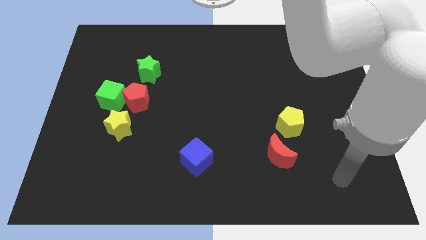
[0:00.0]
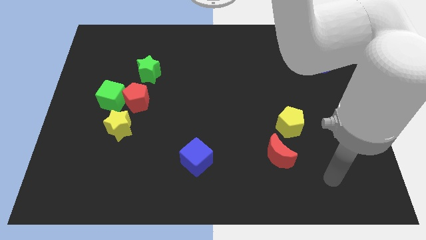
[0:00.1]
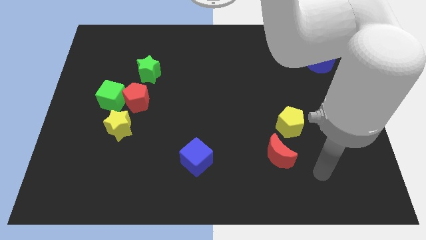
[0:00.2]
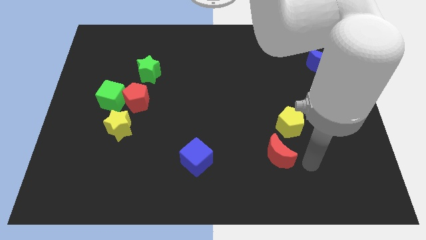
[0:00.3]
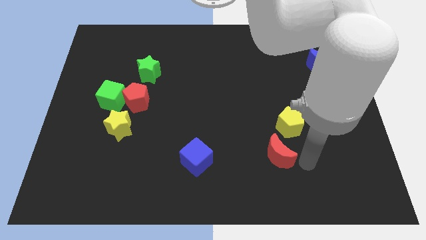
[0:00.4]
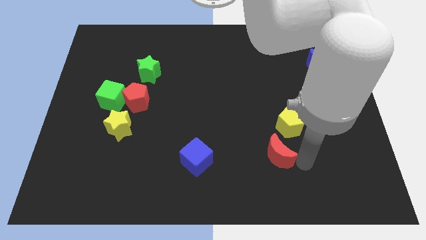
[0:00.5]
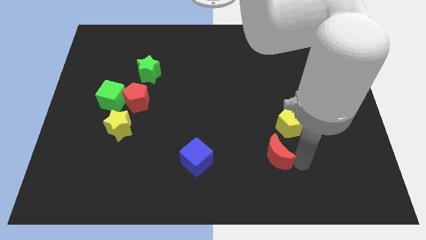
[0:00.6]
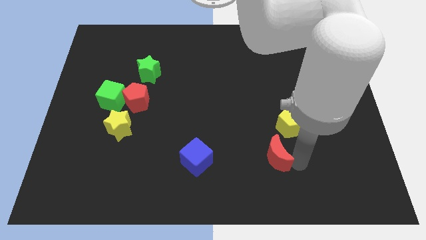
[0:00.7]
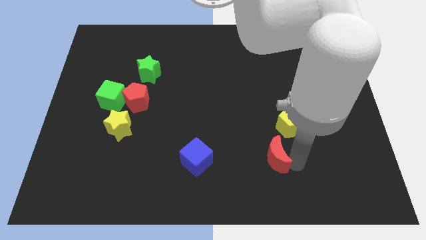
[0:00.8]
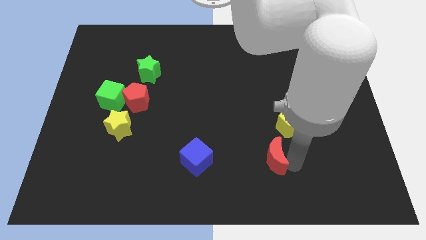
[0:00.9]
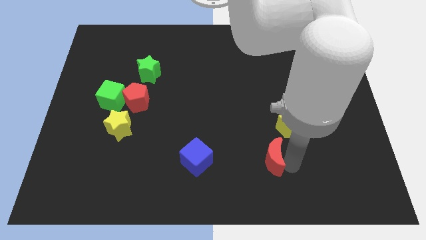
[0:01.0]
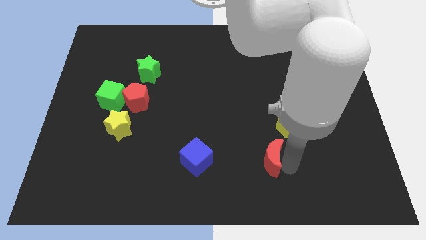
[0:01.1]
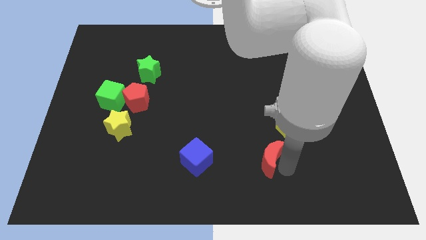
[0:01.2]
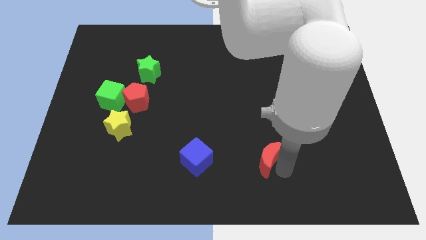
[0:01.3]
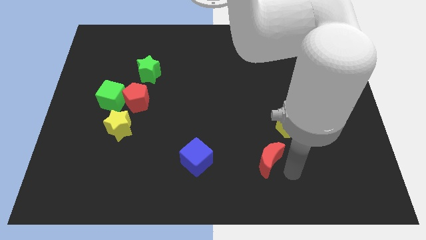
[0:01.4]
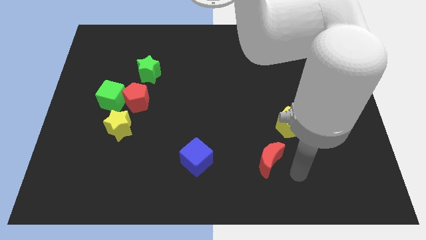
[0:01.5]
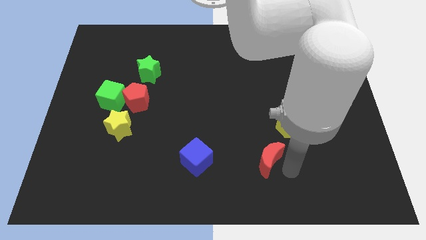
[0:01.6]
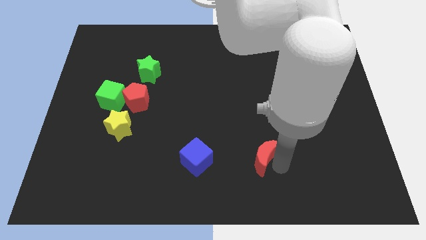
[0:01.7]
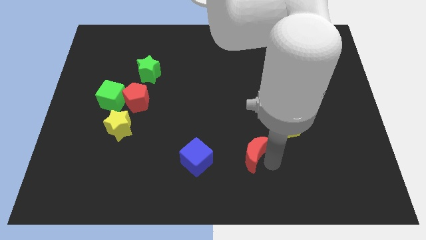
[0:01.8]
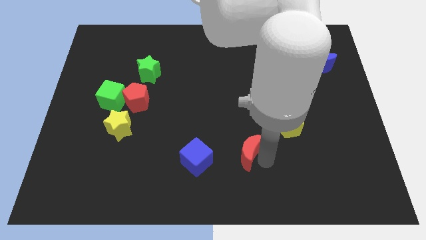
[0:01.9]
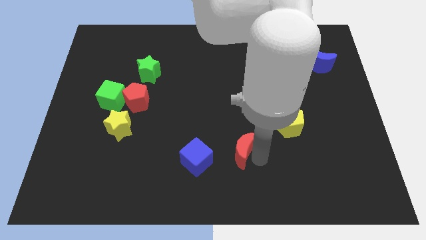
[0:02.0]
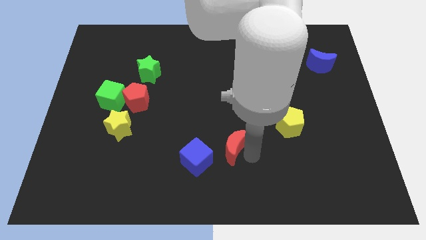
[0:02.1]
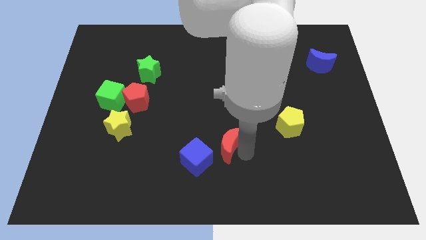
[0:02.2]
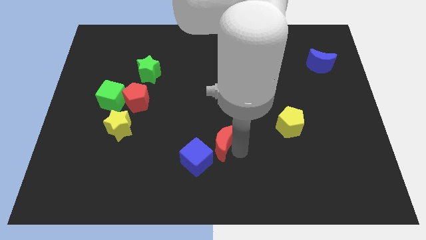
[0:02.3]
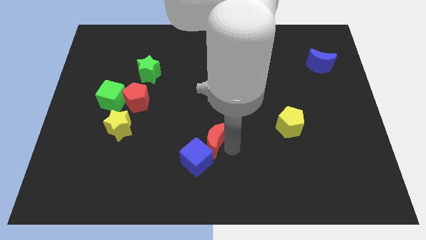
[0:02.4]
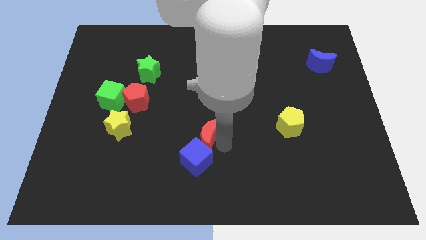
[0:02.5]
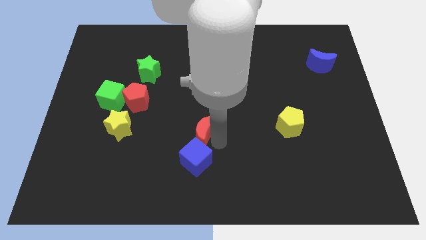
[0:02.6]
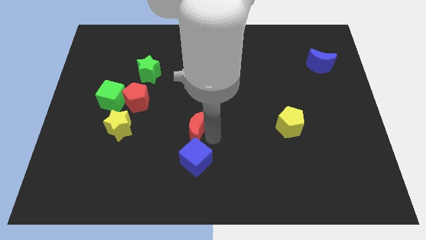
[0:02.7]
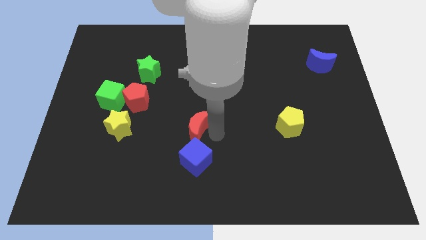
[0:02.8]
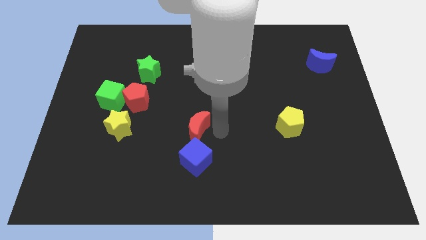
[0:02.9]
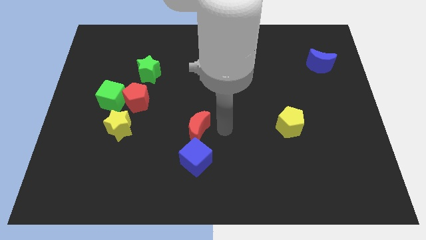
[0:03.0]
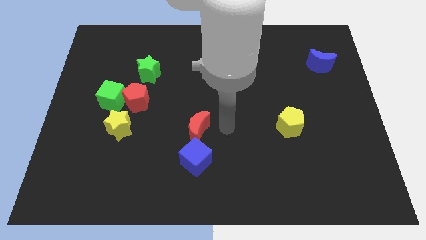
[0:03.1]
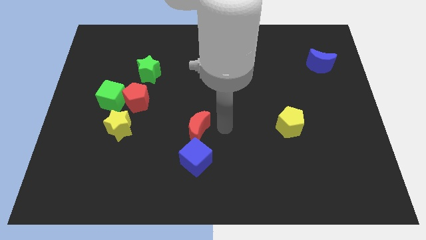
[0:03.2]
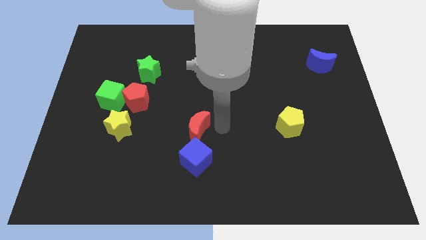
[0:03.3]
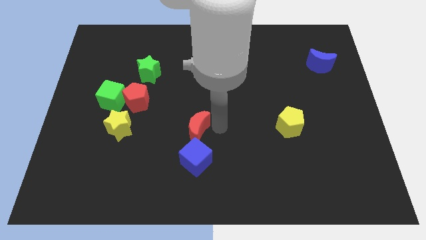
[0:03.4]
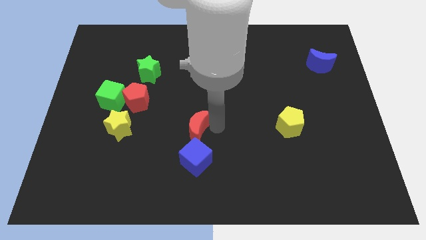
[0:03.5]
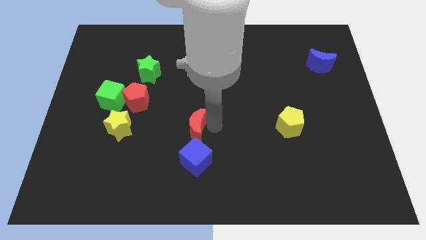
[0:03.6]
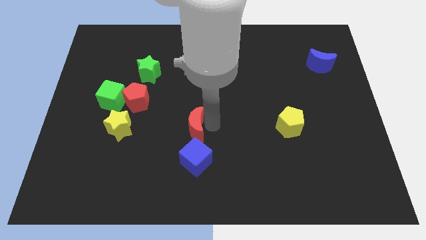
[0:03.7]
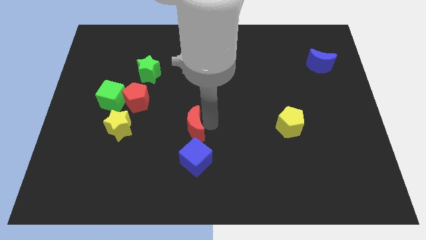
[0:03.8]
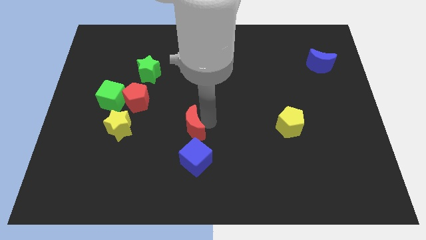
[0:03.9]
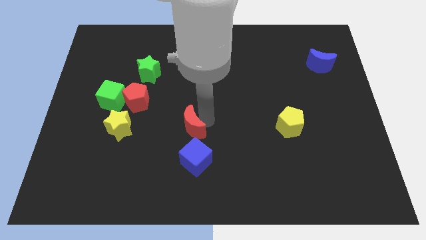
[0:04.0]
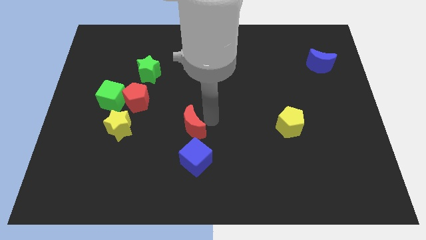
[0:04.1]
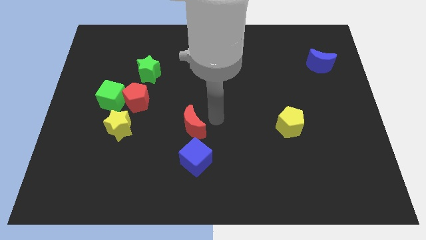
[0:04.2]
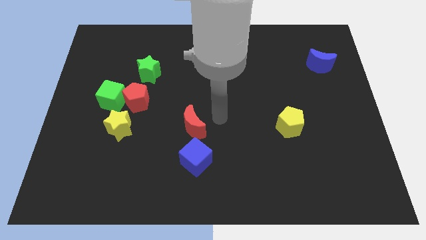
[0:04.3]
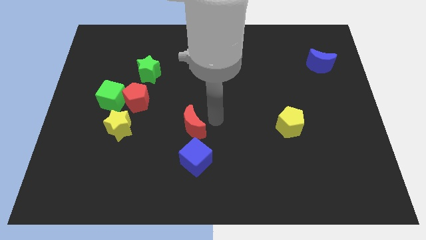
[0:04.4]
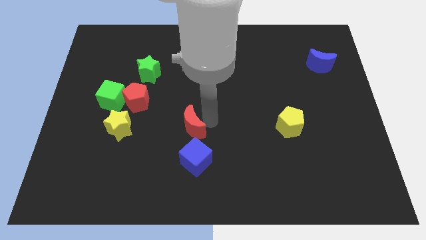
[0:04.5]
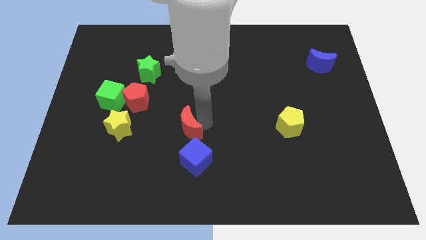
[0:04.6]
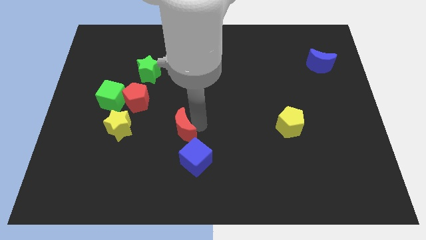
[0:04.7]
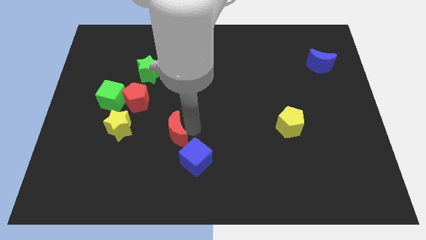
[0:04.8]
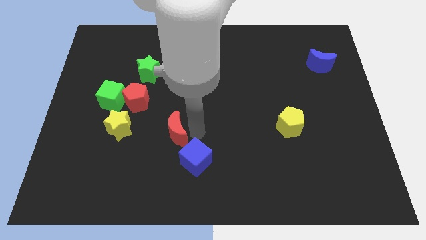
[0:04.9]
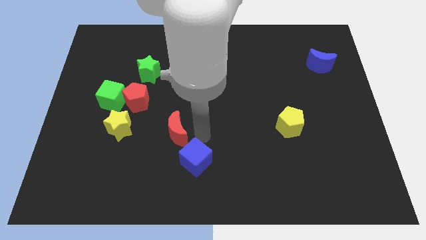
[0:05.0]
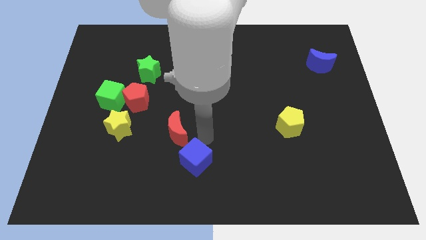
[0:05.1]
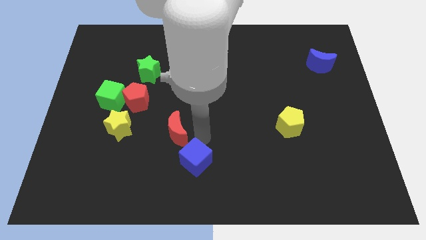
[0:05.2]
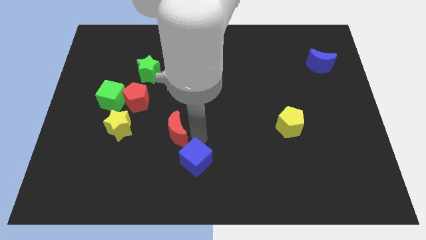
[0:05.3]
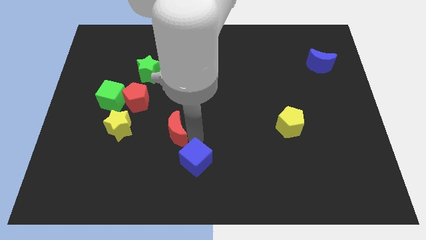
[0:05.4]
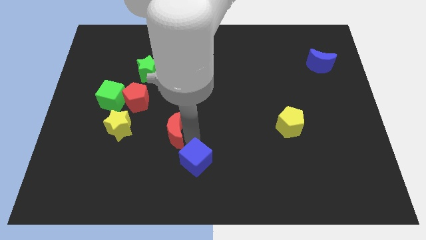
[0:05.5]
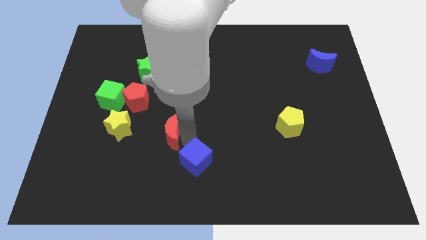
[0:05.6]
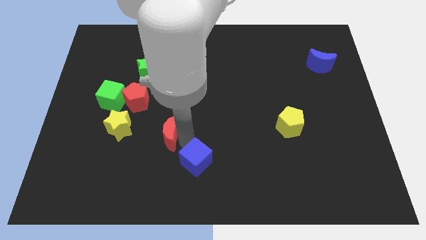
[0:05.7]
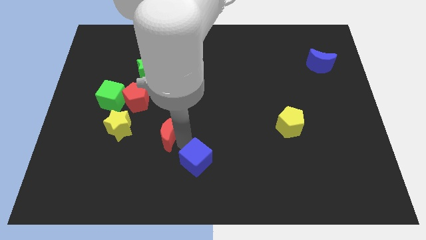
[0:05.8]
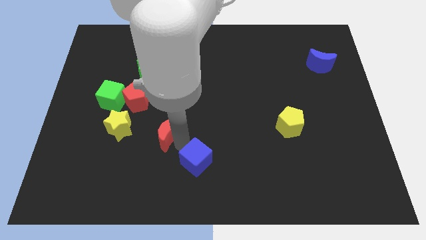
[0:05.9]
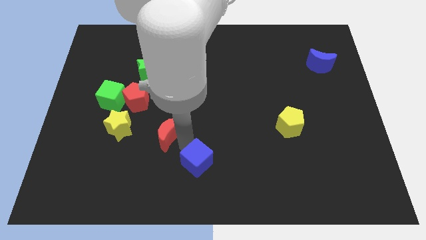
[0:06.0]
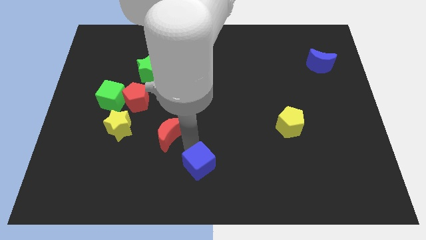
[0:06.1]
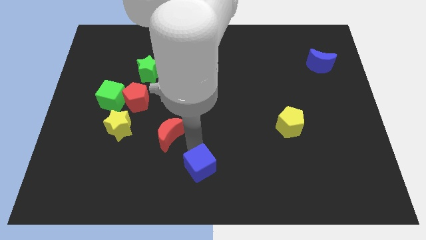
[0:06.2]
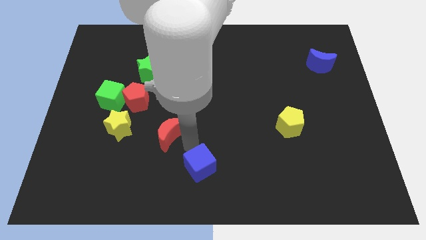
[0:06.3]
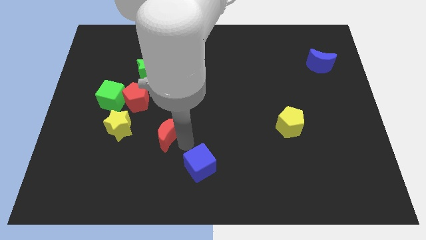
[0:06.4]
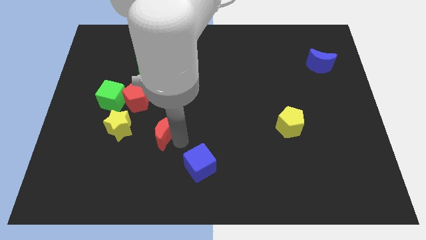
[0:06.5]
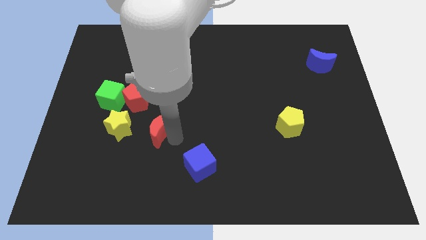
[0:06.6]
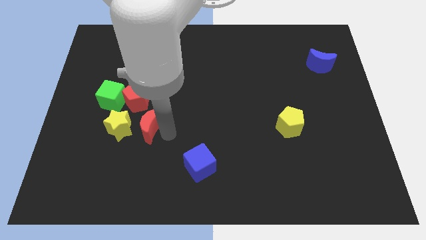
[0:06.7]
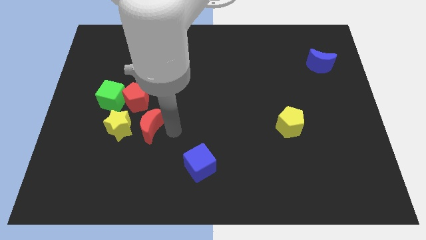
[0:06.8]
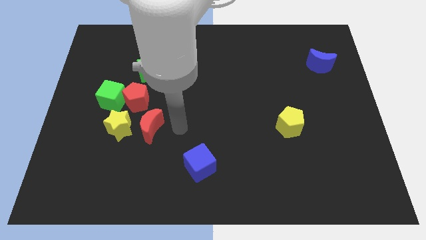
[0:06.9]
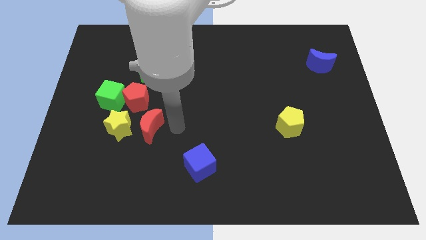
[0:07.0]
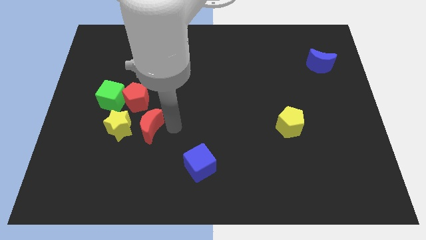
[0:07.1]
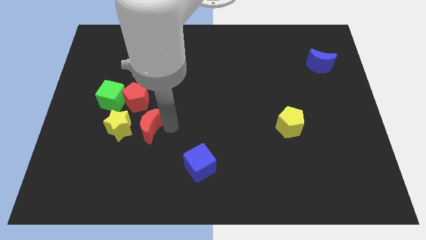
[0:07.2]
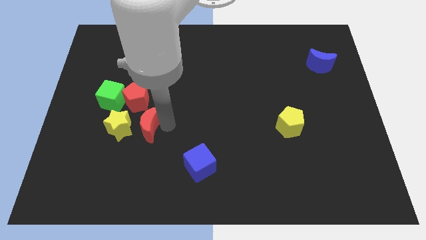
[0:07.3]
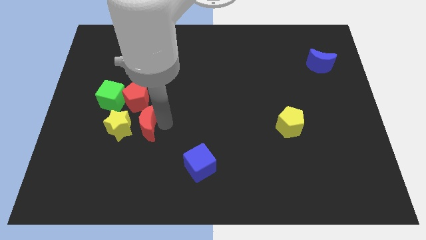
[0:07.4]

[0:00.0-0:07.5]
put the red moon to the yellow star

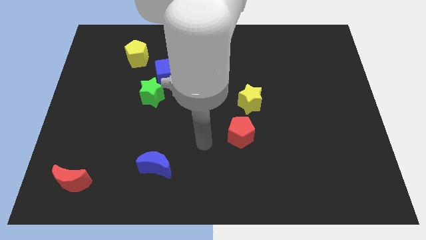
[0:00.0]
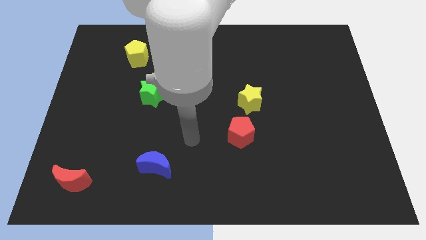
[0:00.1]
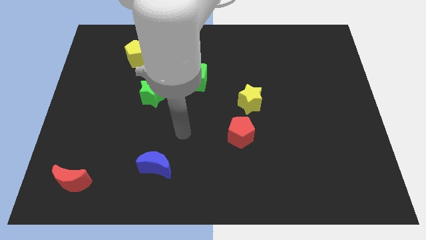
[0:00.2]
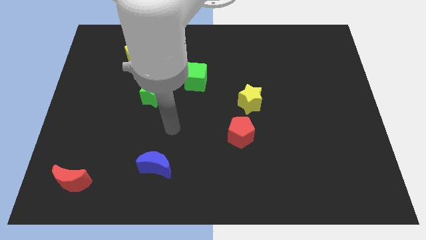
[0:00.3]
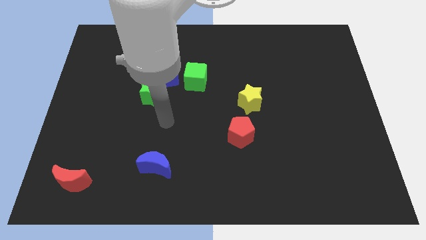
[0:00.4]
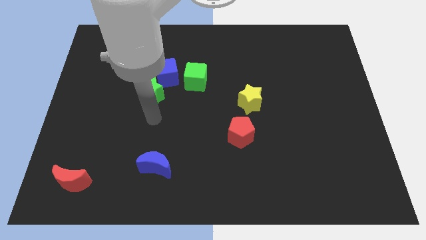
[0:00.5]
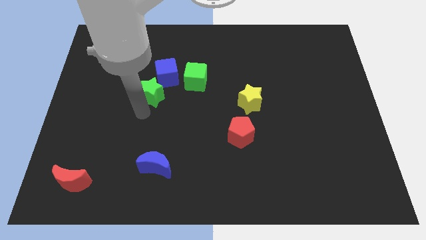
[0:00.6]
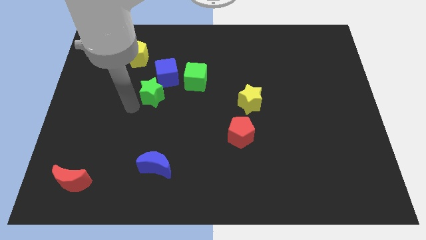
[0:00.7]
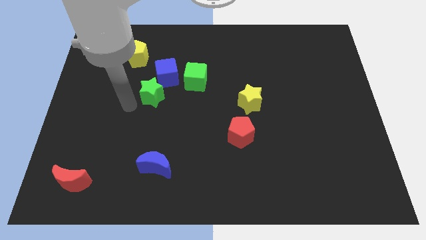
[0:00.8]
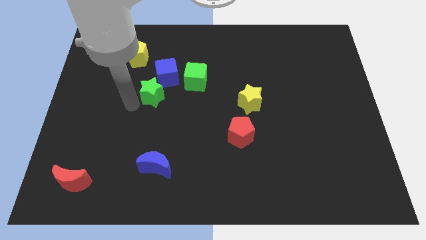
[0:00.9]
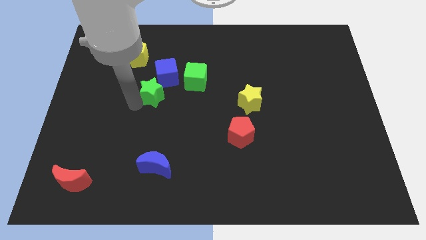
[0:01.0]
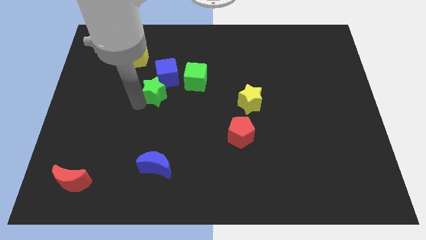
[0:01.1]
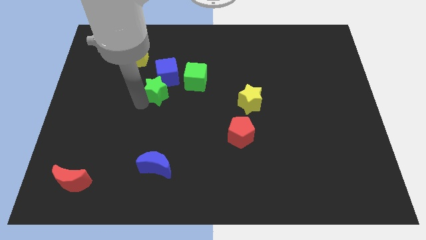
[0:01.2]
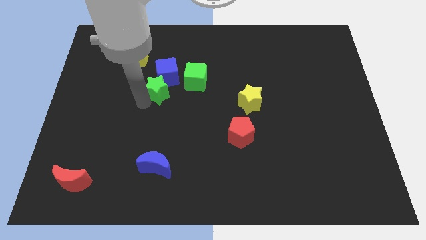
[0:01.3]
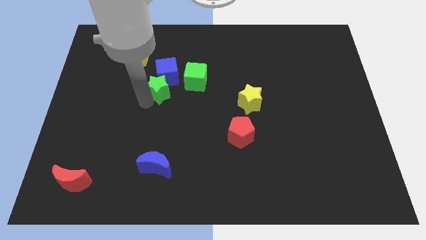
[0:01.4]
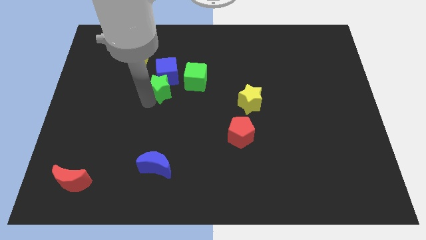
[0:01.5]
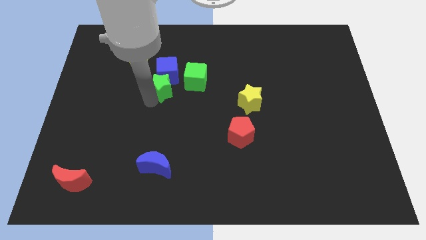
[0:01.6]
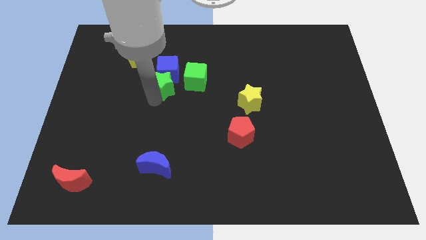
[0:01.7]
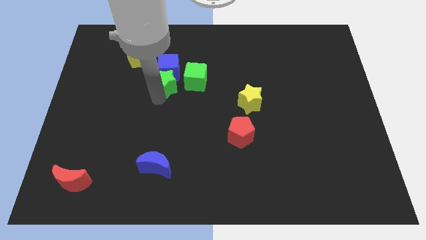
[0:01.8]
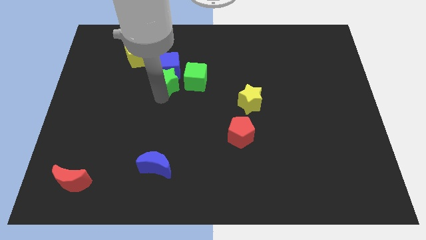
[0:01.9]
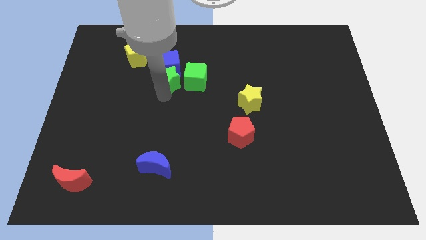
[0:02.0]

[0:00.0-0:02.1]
push the green star to the green cube
